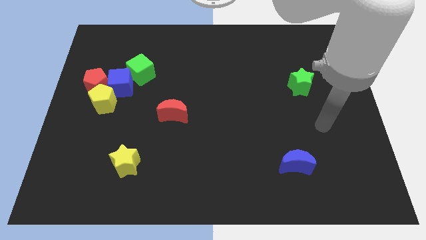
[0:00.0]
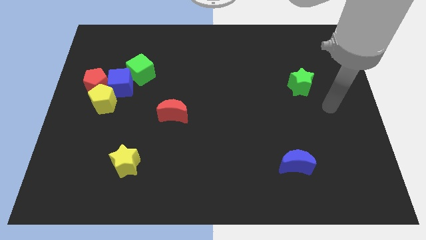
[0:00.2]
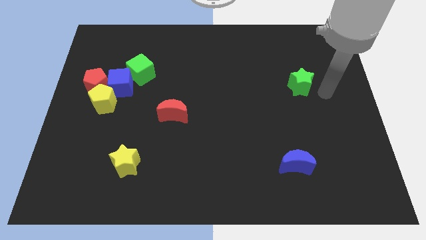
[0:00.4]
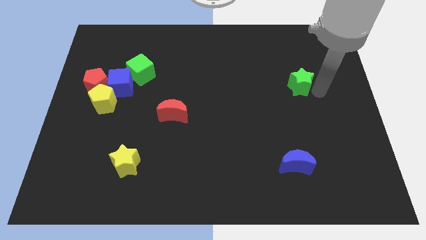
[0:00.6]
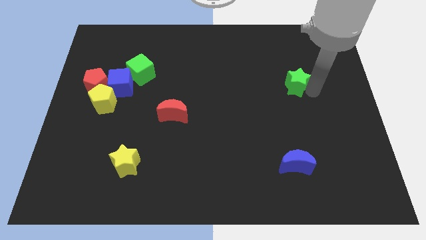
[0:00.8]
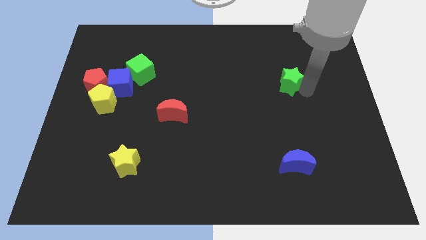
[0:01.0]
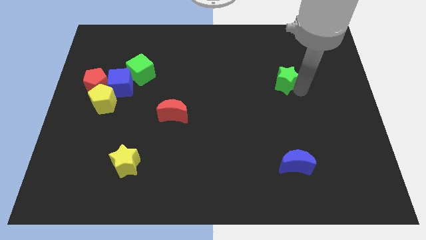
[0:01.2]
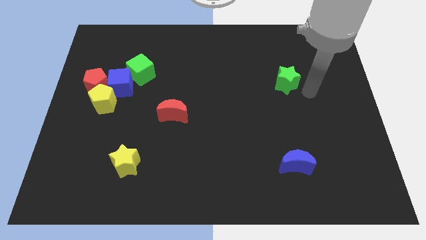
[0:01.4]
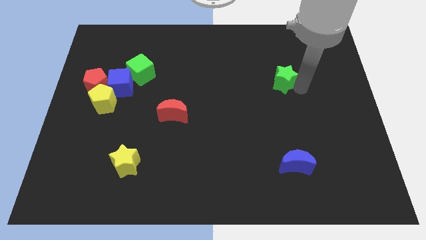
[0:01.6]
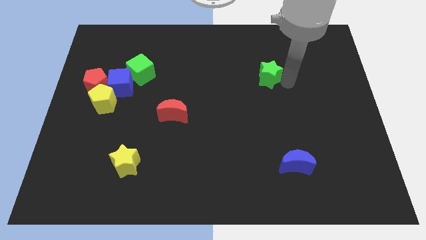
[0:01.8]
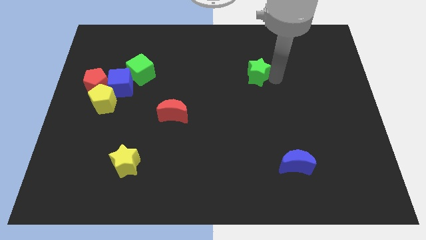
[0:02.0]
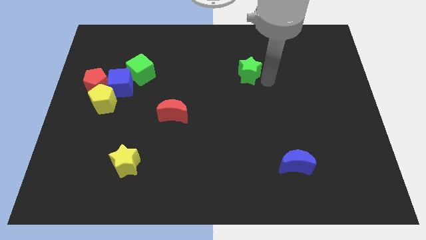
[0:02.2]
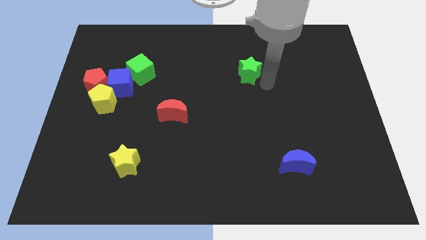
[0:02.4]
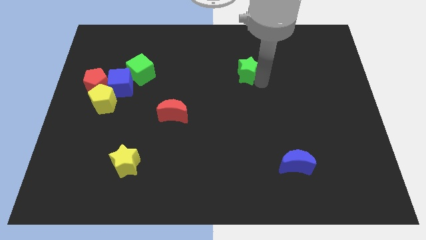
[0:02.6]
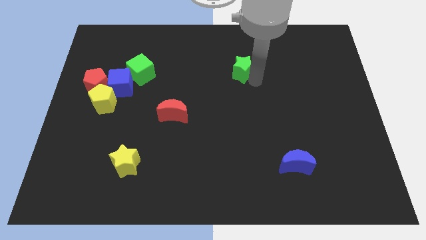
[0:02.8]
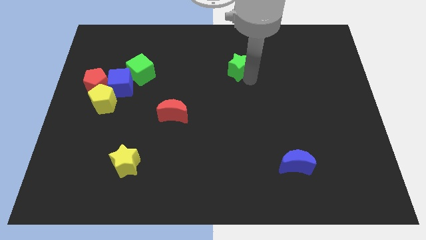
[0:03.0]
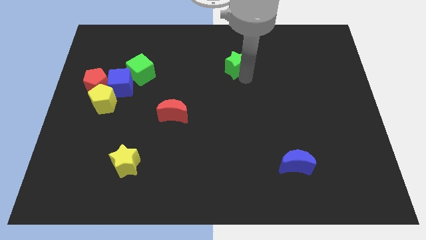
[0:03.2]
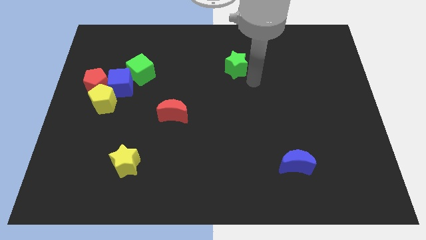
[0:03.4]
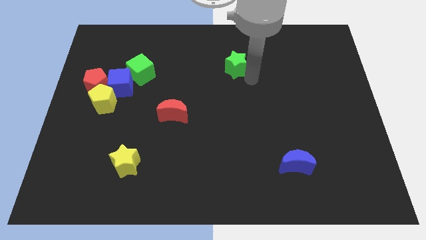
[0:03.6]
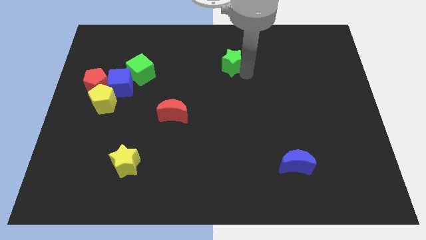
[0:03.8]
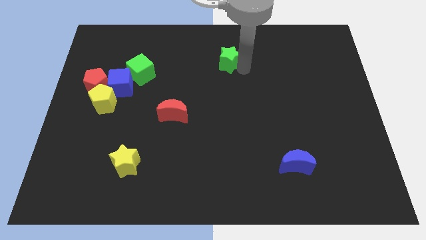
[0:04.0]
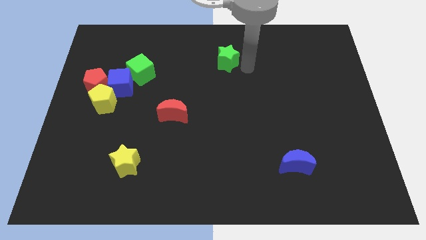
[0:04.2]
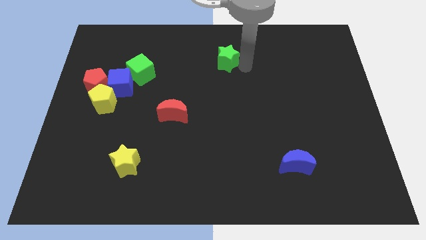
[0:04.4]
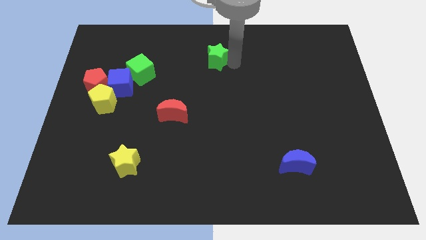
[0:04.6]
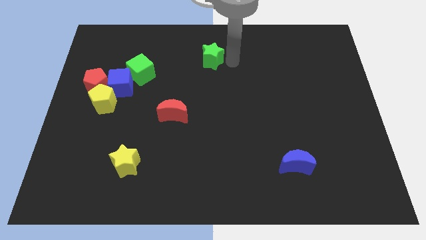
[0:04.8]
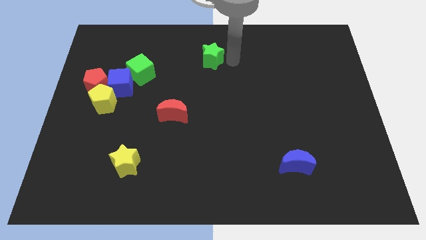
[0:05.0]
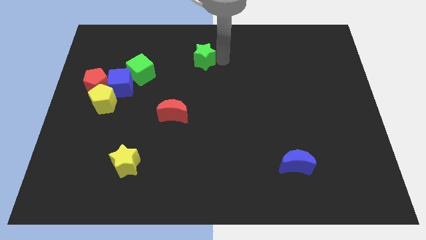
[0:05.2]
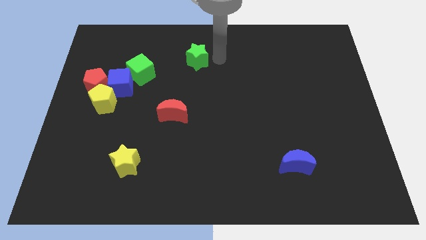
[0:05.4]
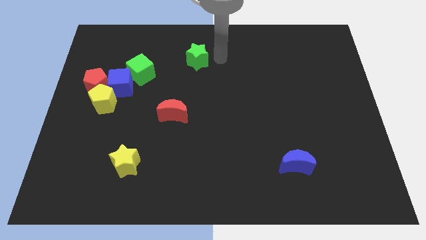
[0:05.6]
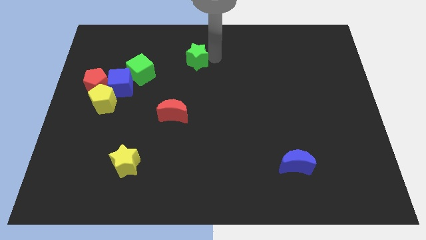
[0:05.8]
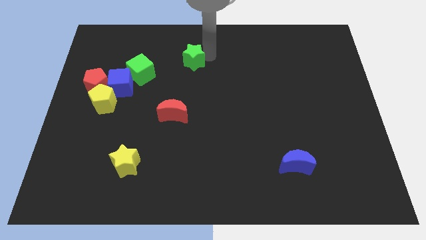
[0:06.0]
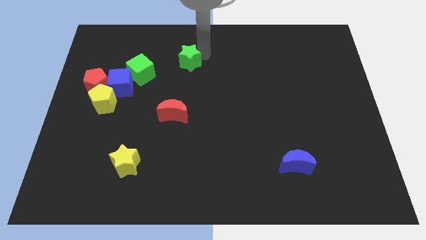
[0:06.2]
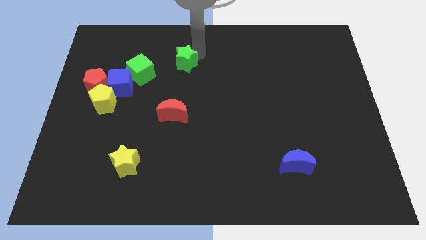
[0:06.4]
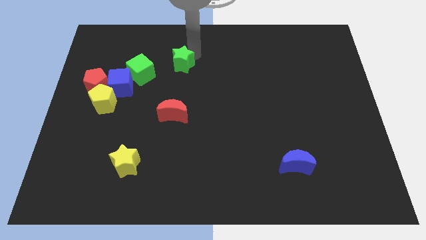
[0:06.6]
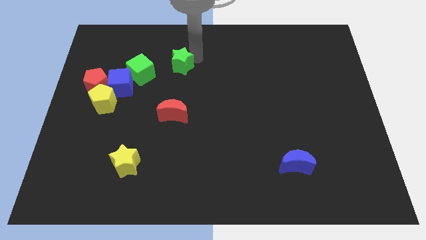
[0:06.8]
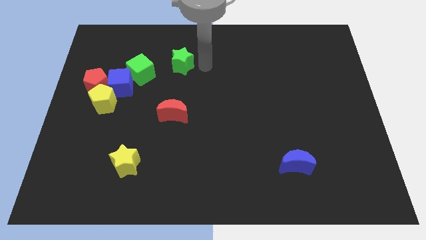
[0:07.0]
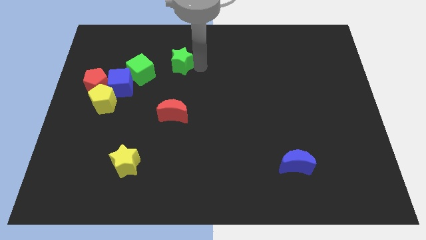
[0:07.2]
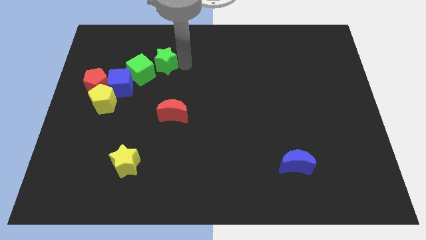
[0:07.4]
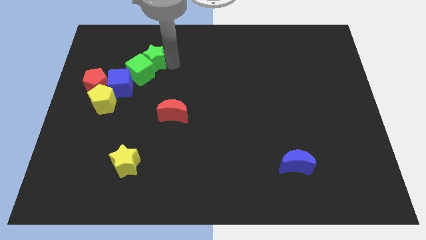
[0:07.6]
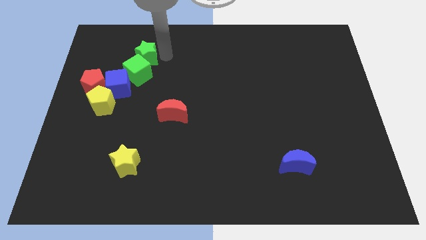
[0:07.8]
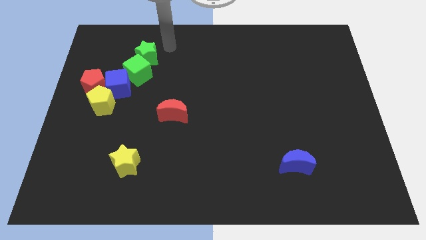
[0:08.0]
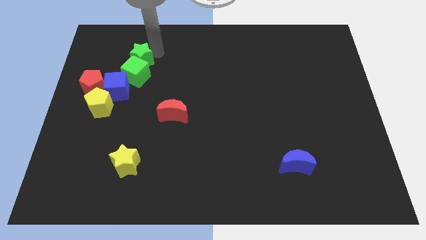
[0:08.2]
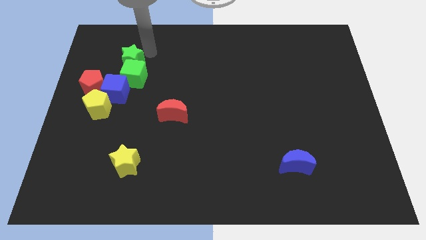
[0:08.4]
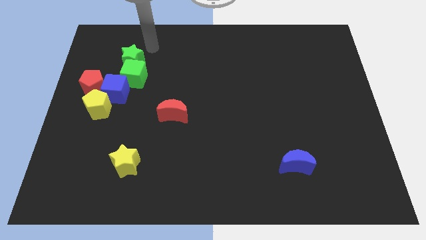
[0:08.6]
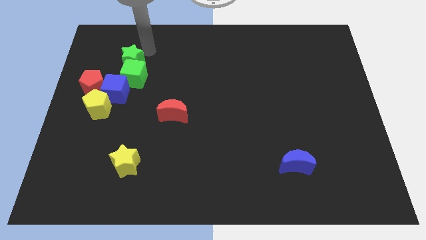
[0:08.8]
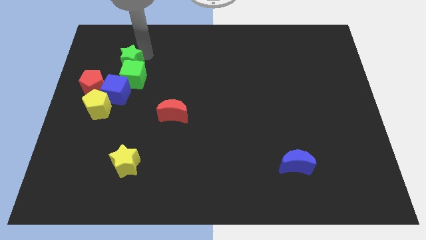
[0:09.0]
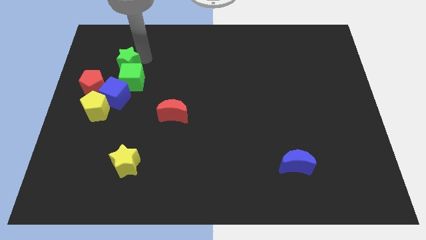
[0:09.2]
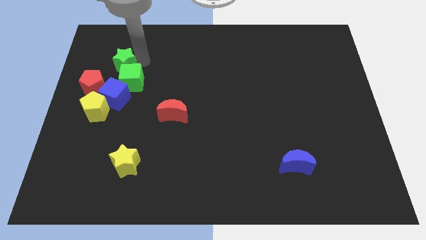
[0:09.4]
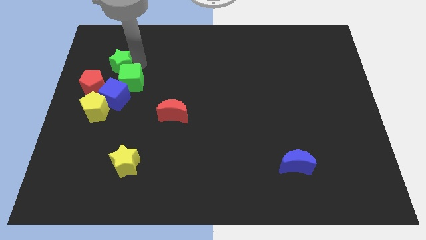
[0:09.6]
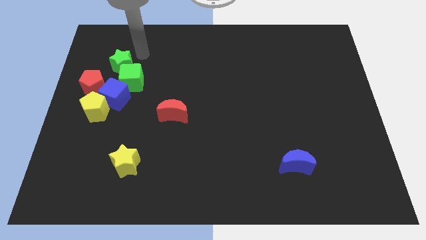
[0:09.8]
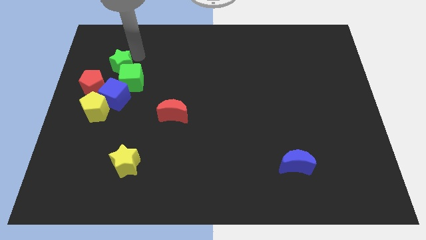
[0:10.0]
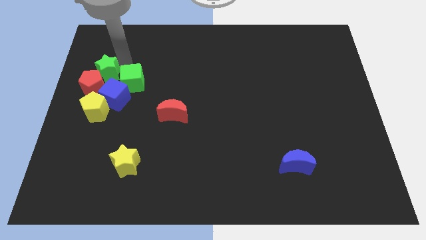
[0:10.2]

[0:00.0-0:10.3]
slide the green star towards the red pentagon

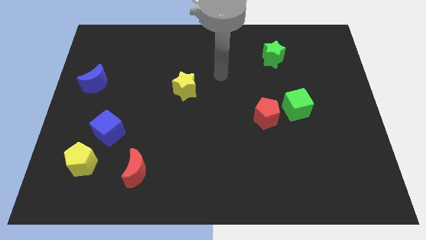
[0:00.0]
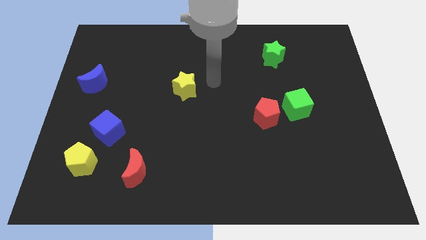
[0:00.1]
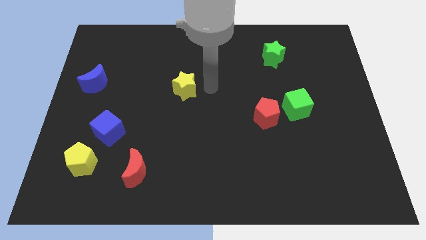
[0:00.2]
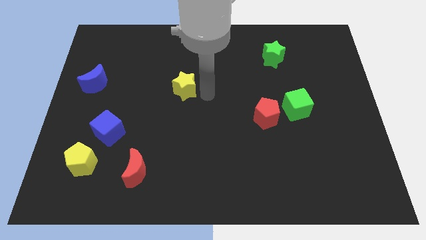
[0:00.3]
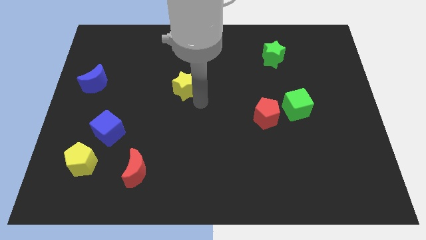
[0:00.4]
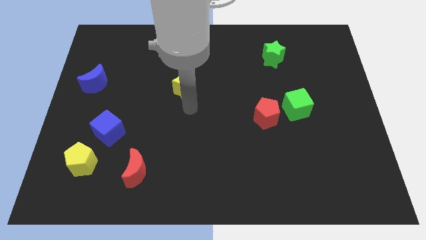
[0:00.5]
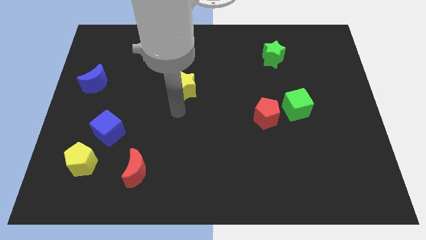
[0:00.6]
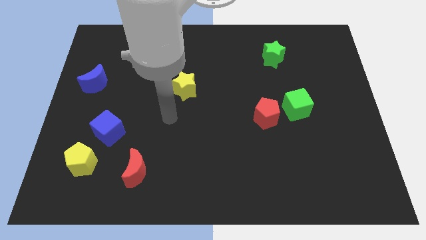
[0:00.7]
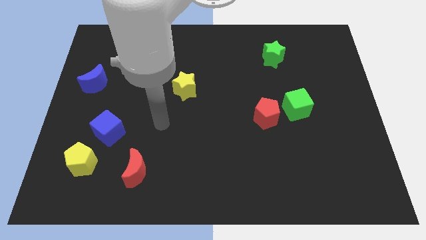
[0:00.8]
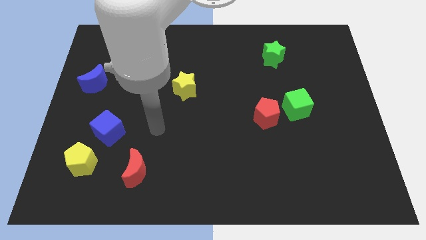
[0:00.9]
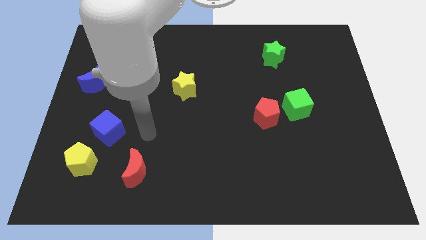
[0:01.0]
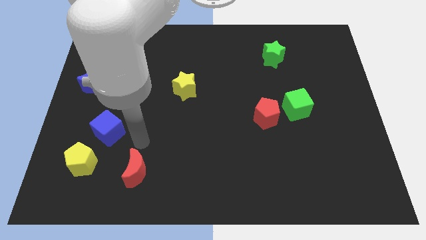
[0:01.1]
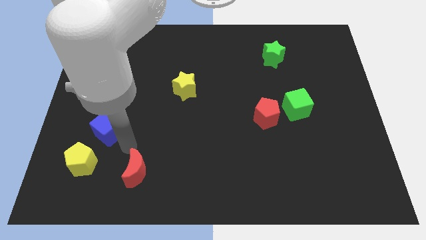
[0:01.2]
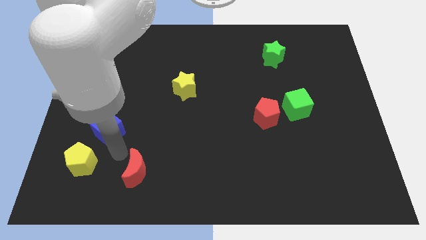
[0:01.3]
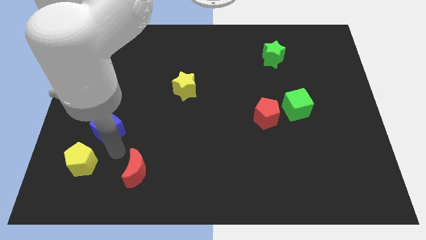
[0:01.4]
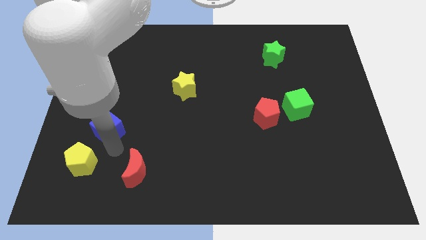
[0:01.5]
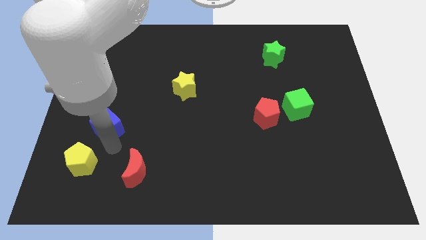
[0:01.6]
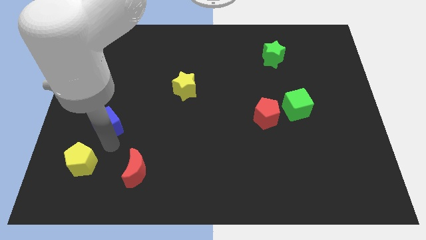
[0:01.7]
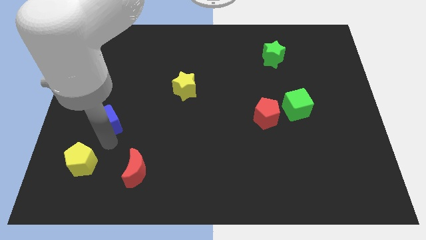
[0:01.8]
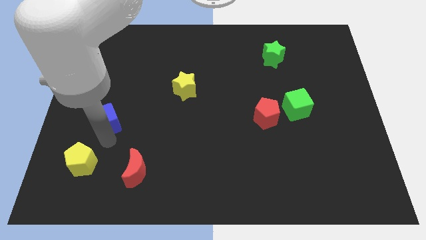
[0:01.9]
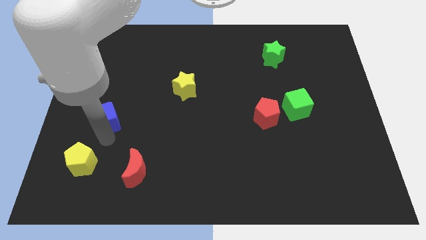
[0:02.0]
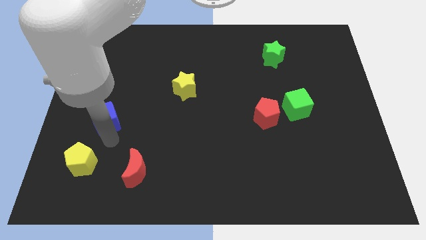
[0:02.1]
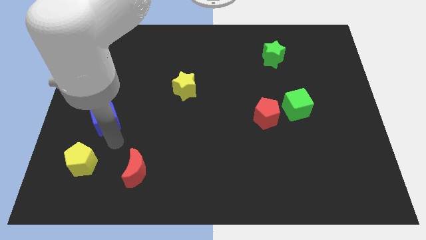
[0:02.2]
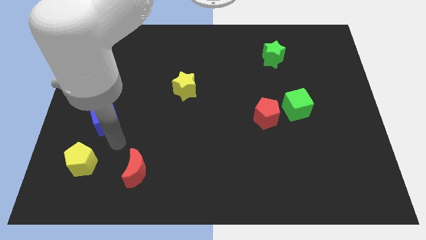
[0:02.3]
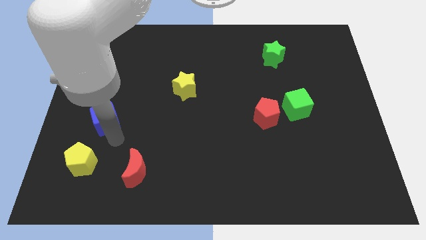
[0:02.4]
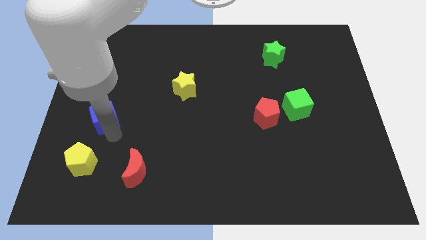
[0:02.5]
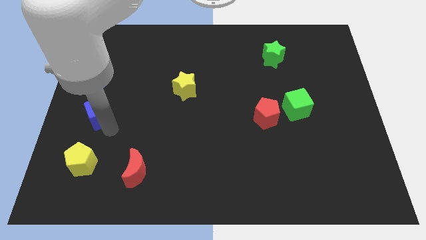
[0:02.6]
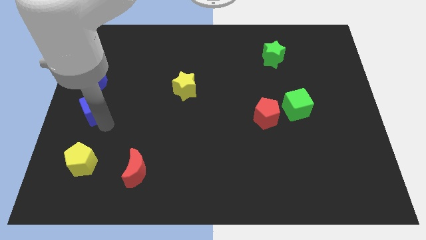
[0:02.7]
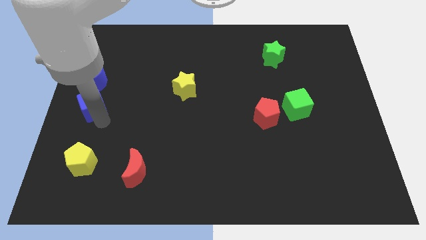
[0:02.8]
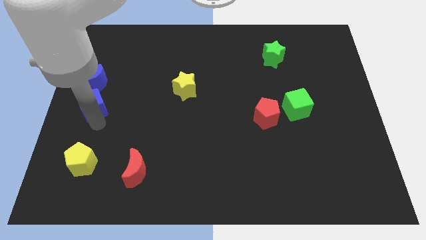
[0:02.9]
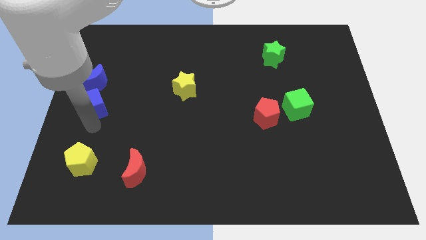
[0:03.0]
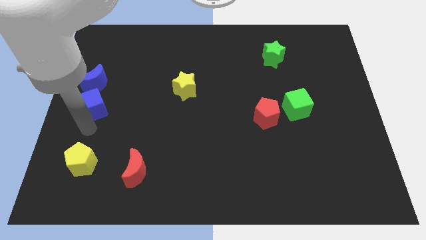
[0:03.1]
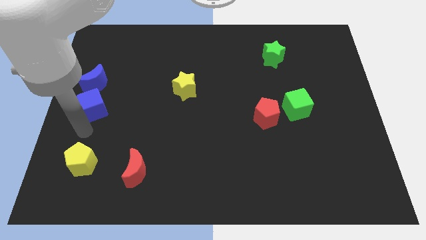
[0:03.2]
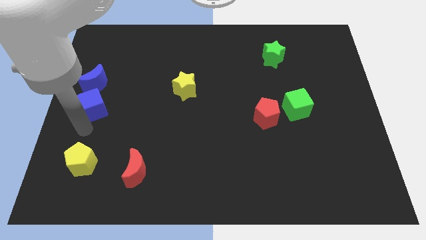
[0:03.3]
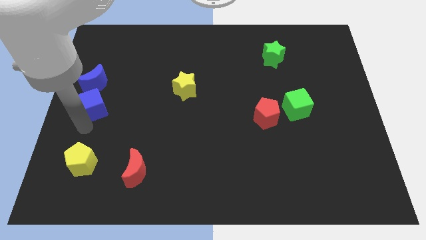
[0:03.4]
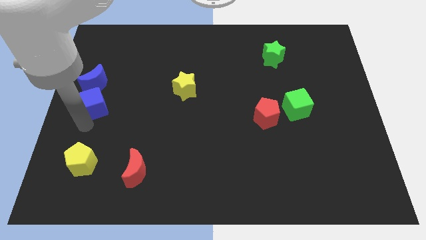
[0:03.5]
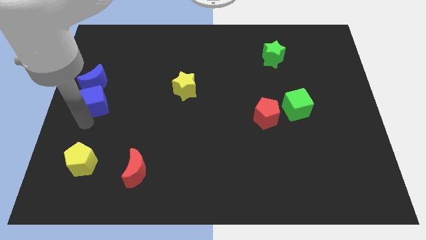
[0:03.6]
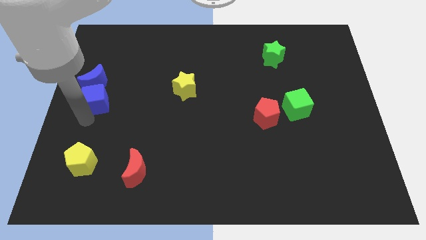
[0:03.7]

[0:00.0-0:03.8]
put the blue cube next to the blue moon
